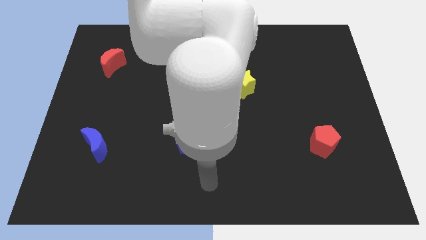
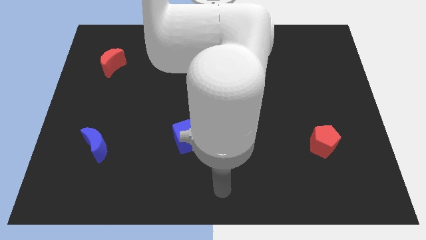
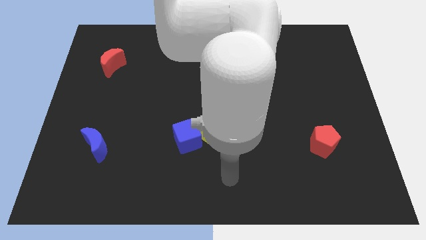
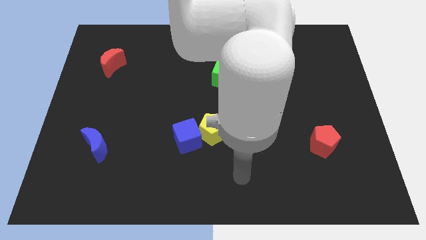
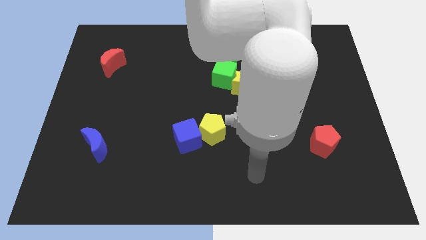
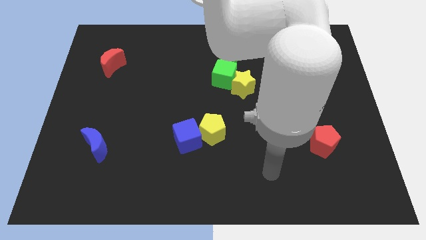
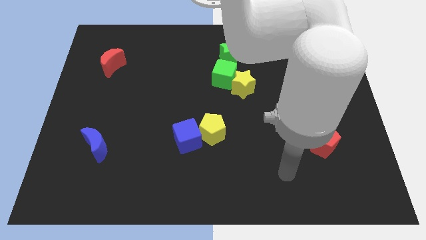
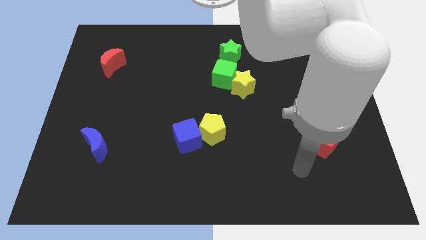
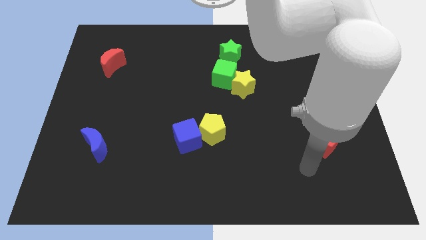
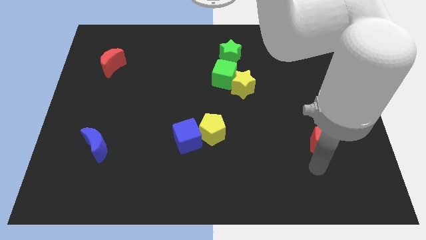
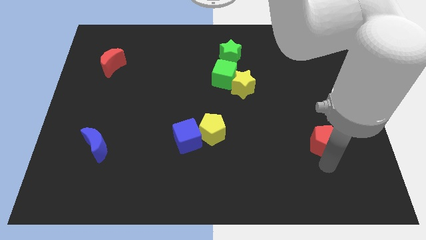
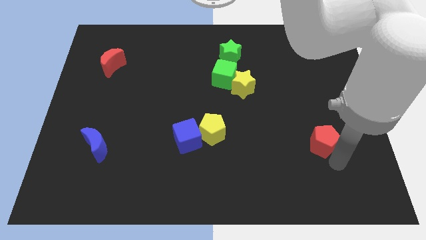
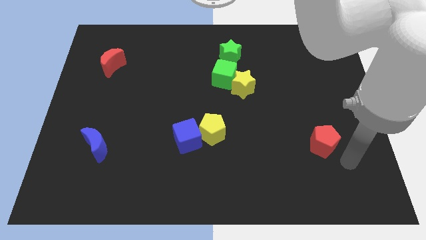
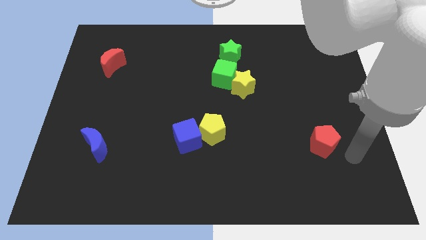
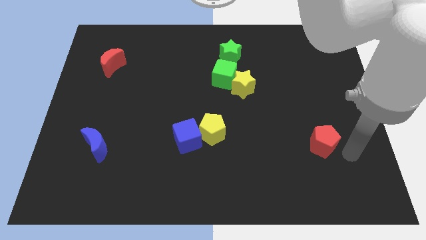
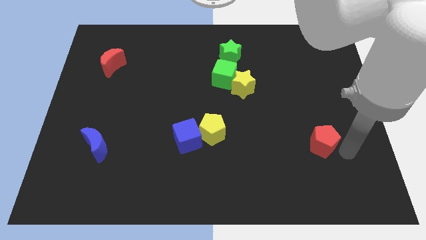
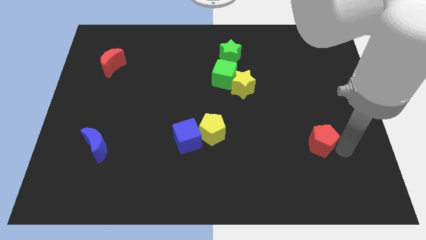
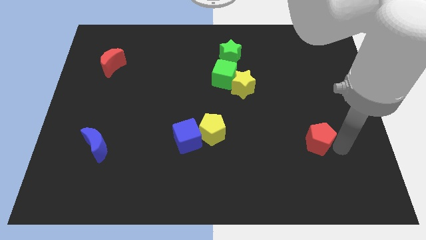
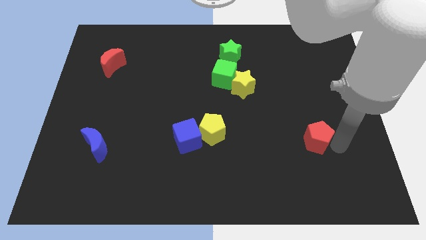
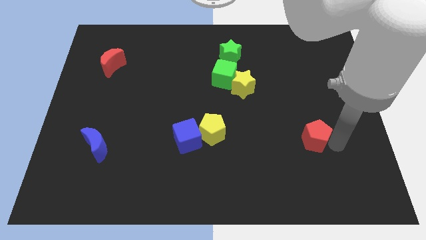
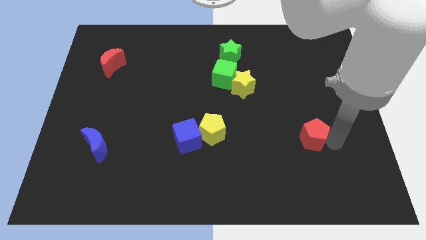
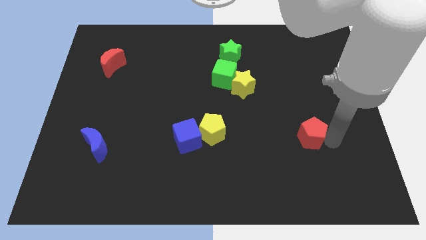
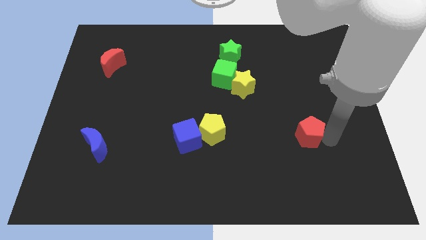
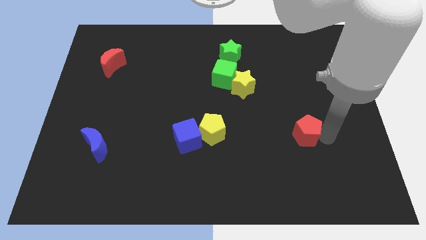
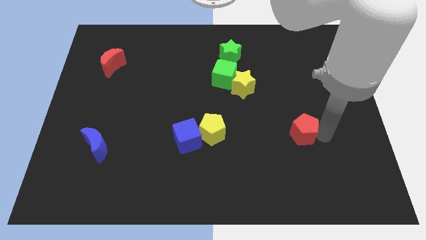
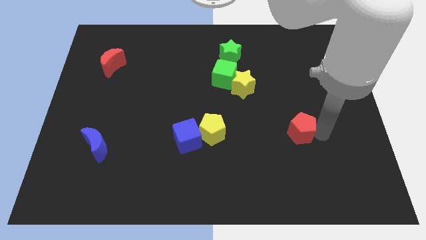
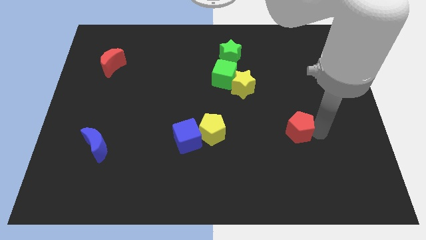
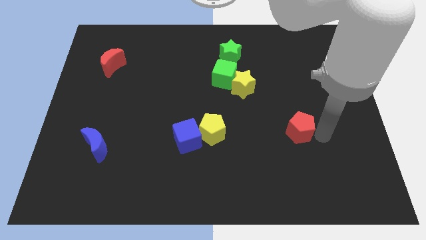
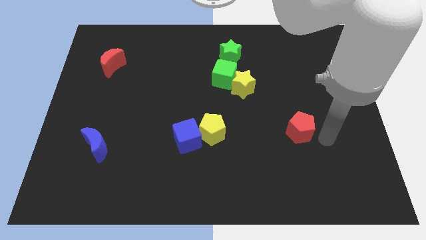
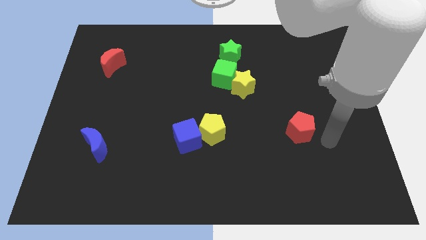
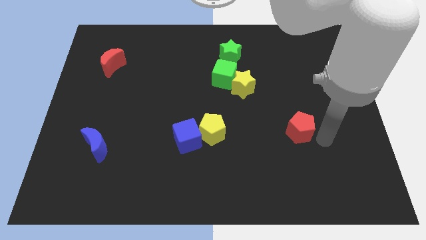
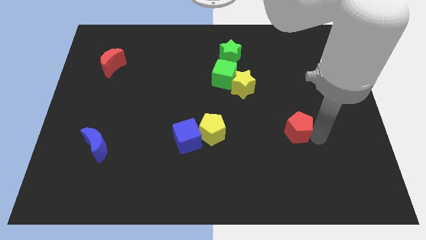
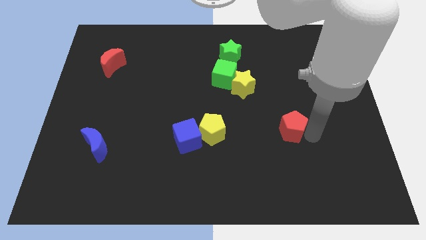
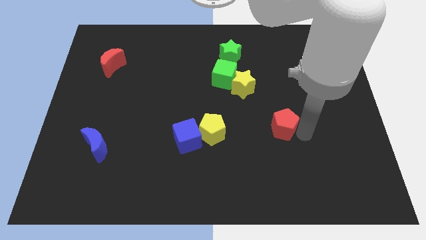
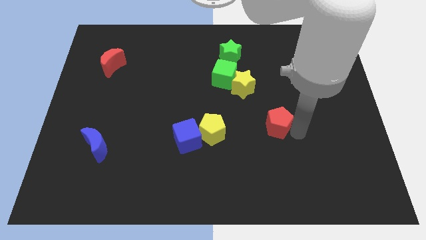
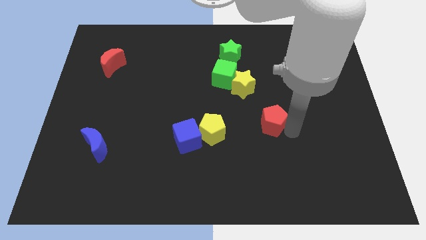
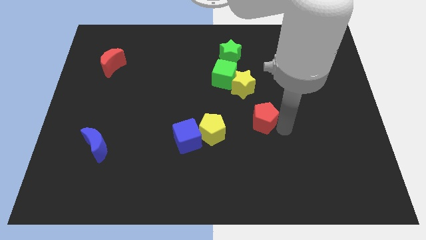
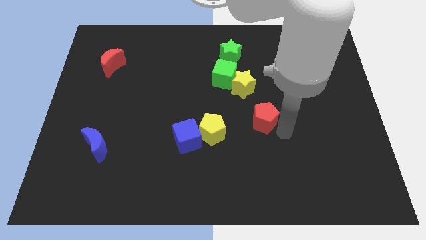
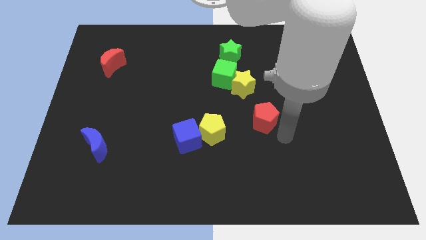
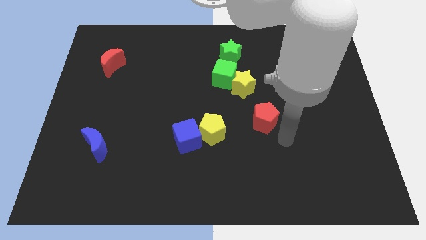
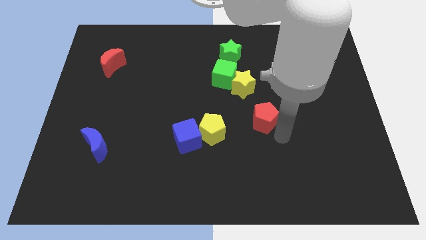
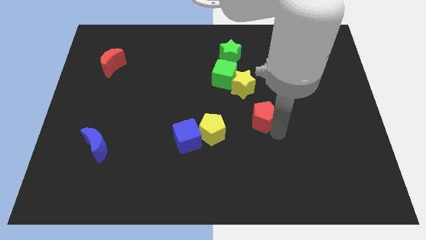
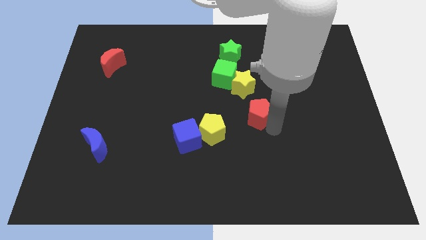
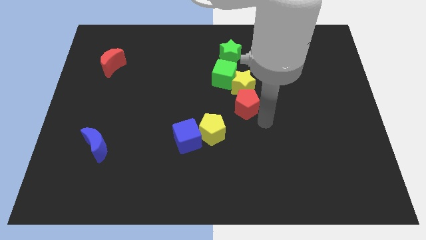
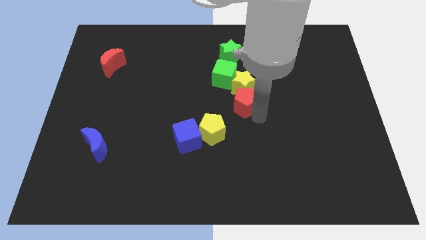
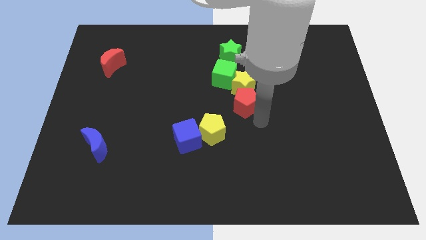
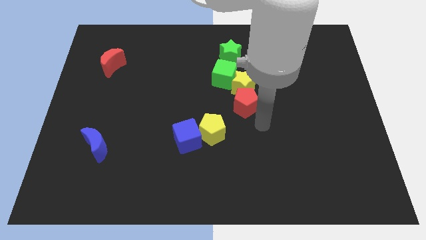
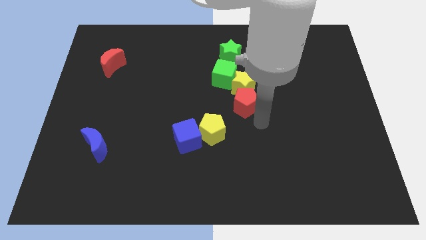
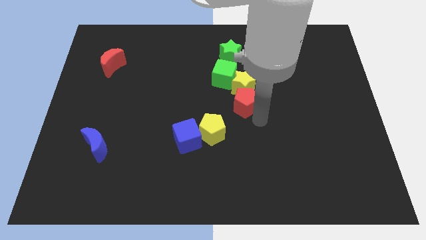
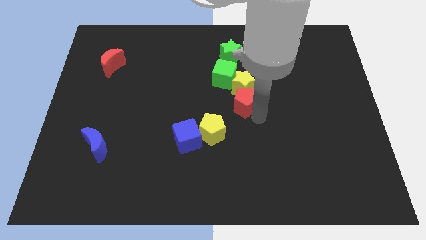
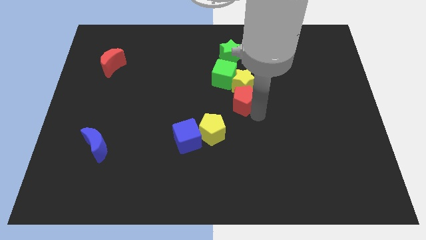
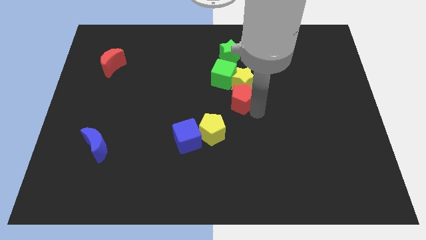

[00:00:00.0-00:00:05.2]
put the red pentagon to the bottom side of the green star

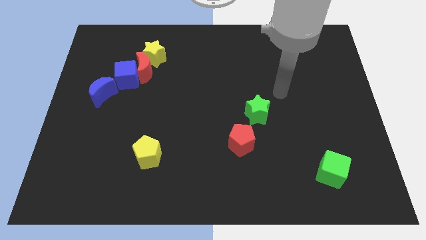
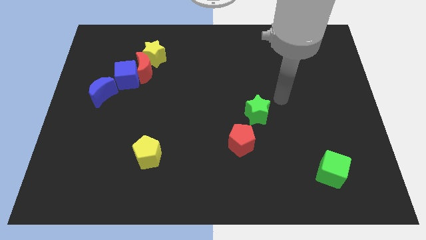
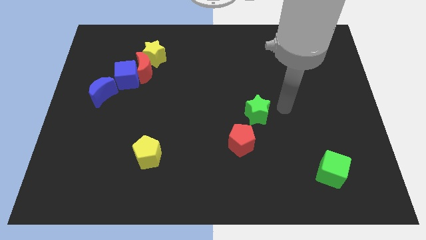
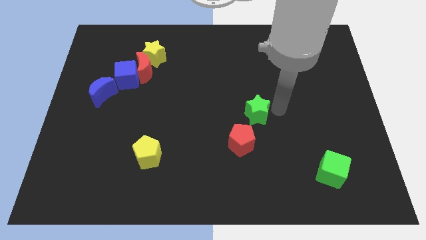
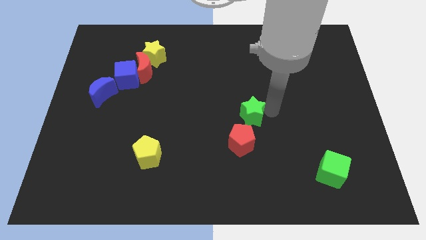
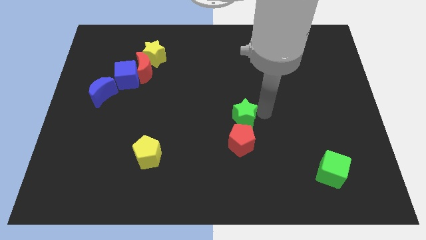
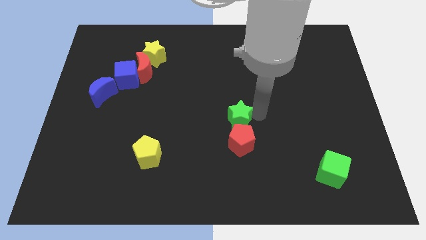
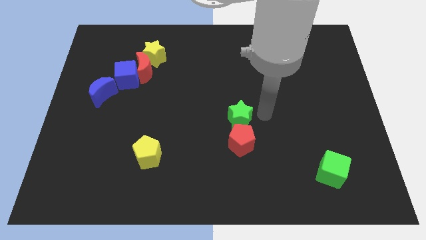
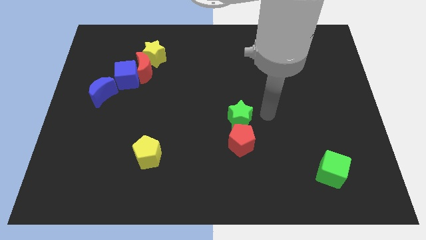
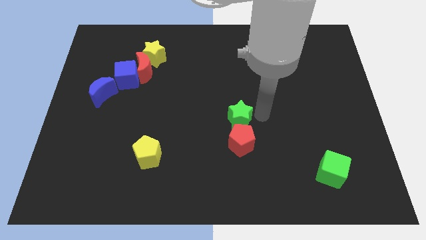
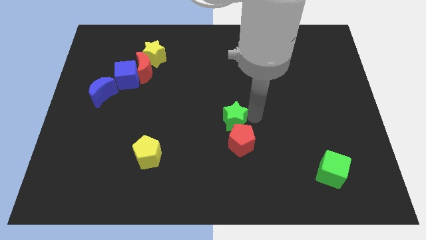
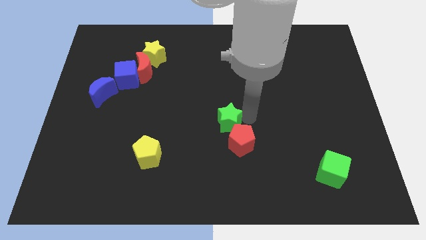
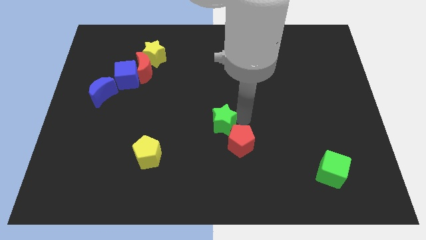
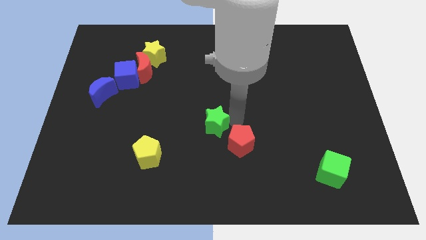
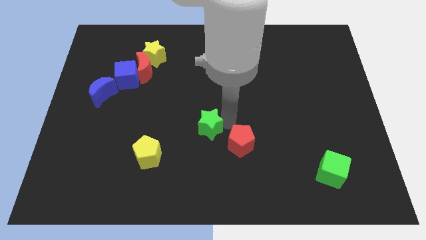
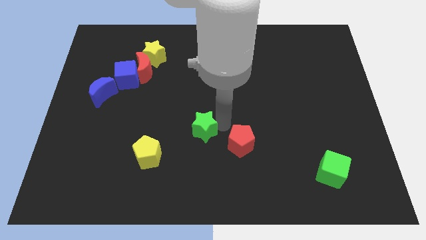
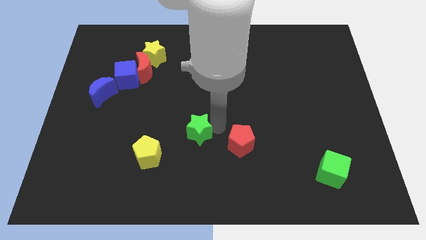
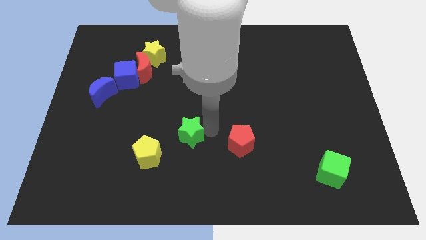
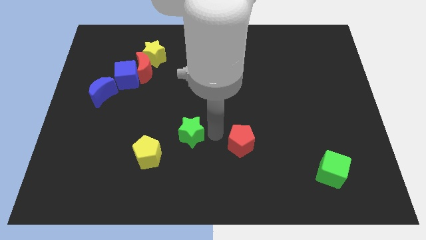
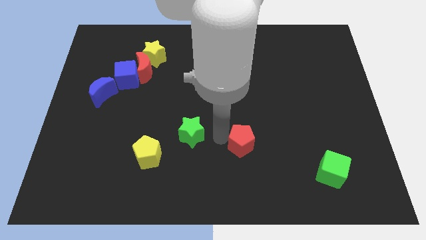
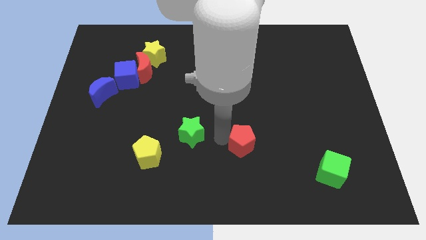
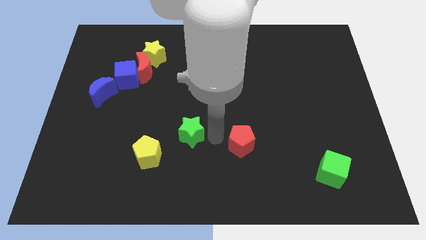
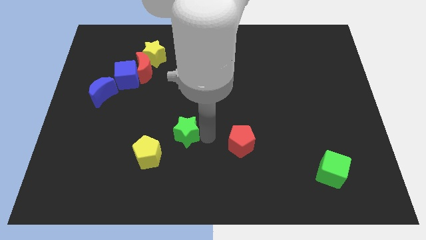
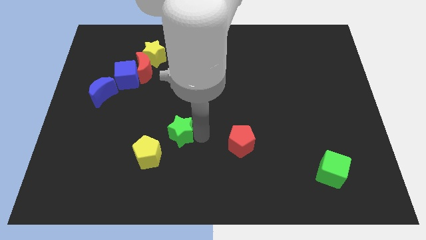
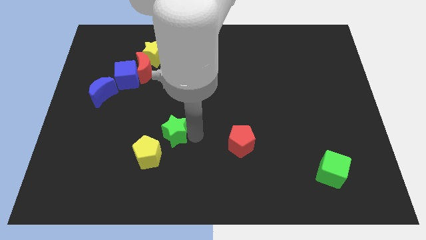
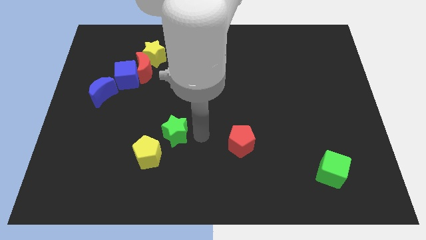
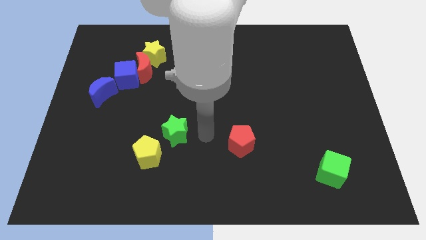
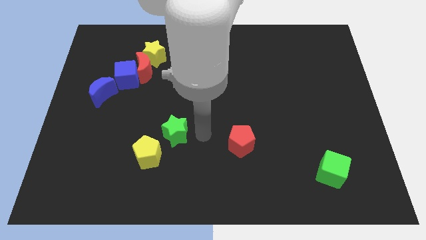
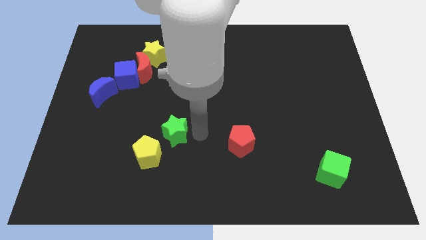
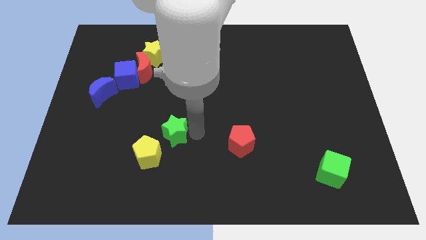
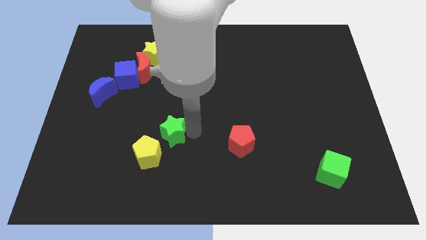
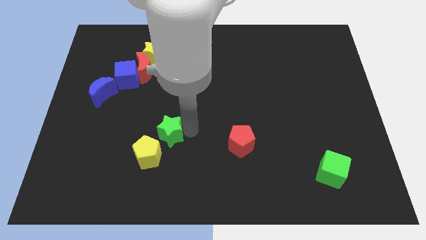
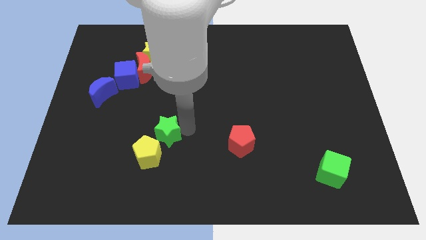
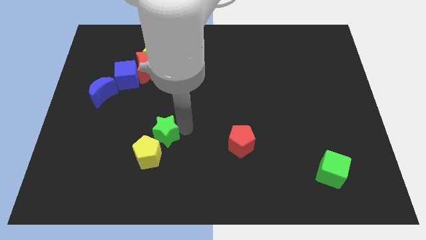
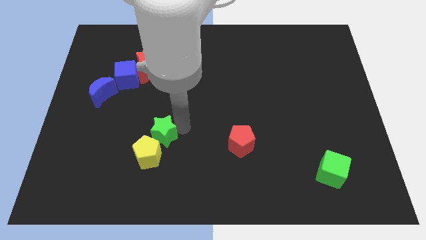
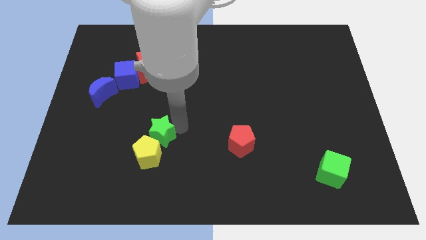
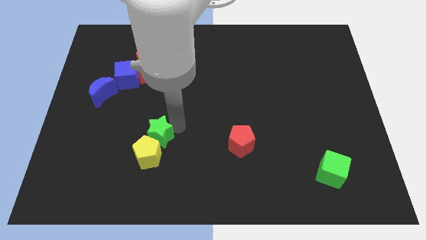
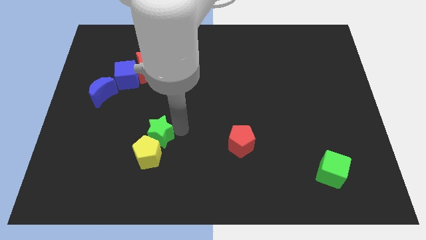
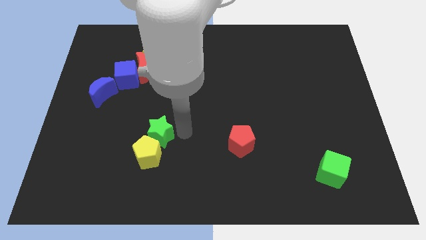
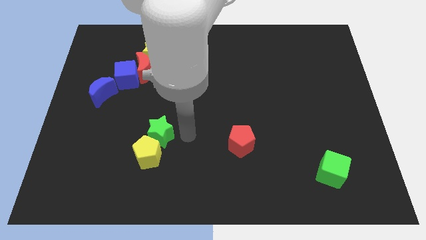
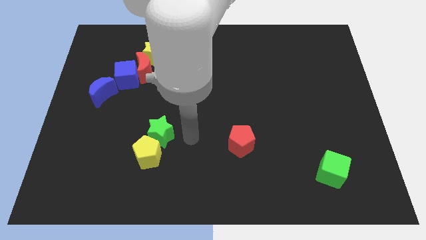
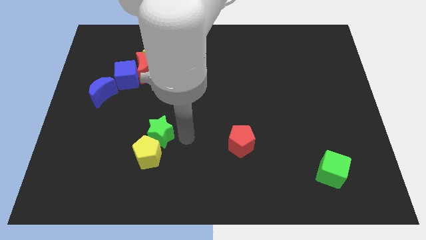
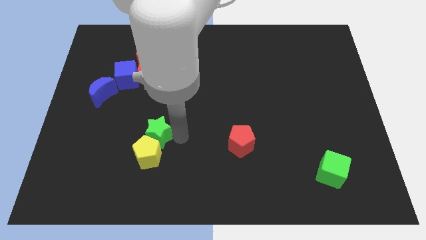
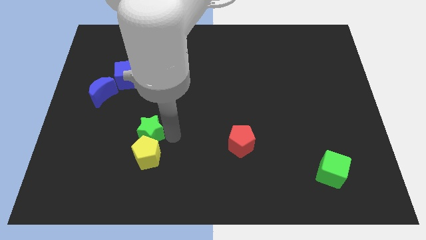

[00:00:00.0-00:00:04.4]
move the green star to the top left side of the yellow pentagon
